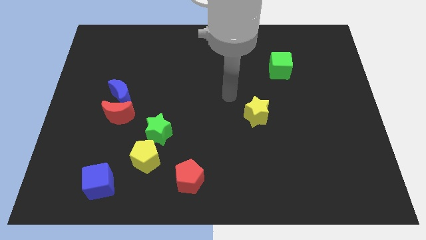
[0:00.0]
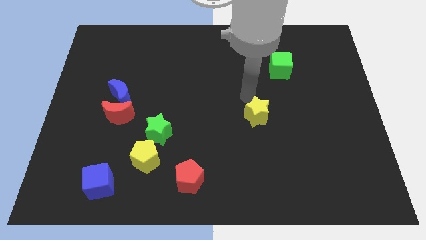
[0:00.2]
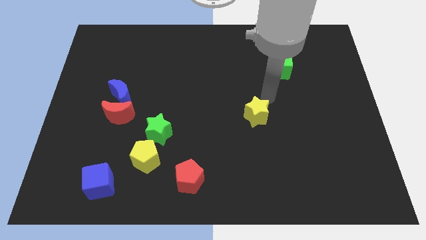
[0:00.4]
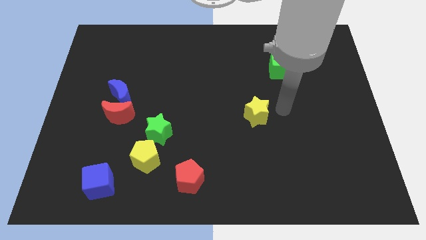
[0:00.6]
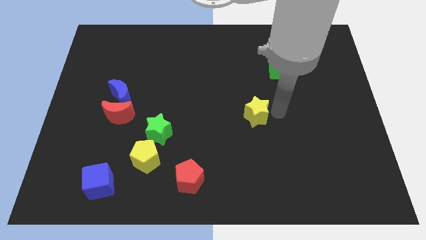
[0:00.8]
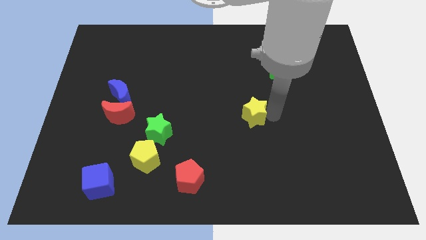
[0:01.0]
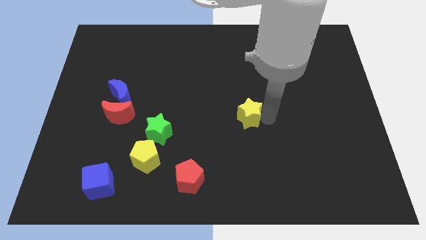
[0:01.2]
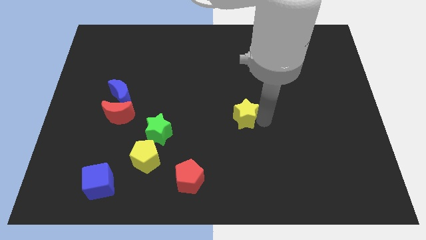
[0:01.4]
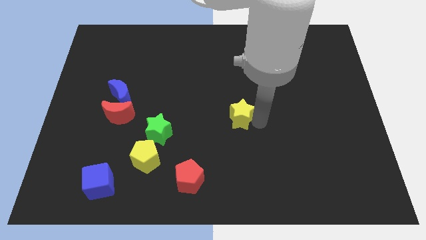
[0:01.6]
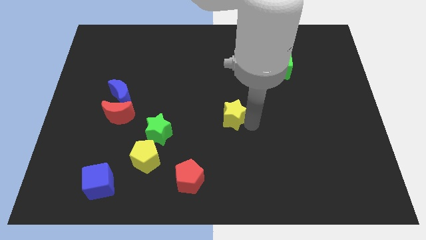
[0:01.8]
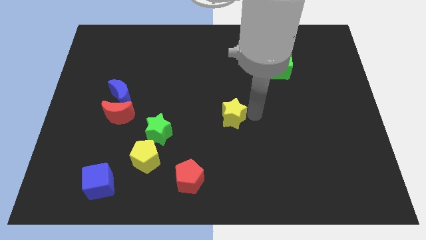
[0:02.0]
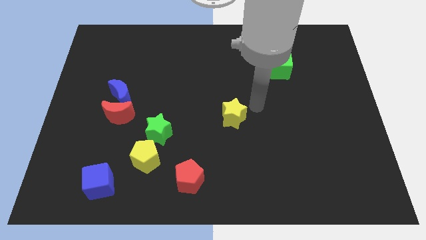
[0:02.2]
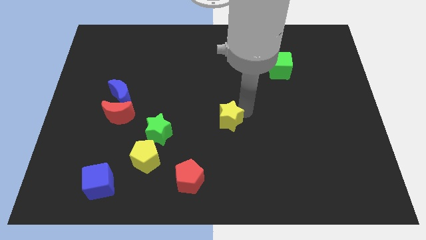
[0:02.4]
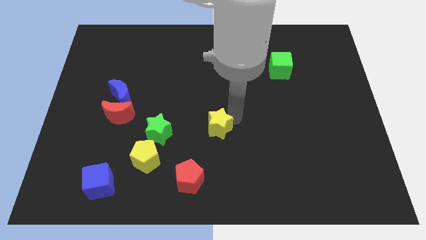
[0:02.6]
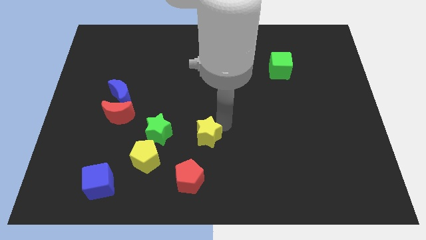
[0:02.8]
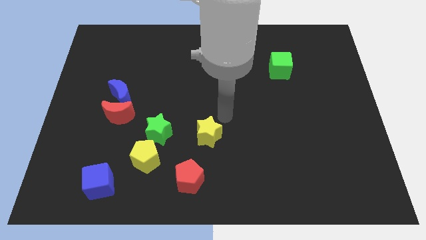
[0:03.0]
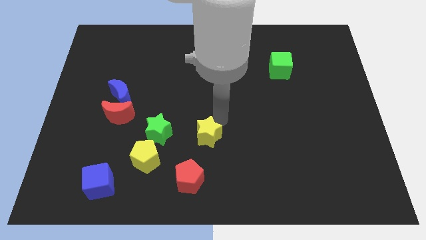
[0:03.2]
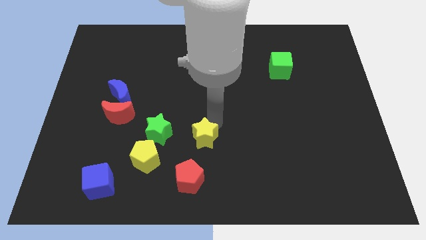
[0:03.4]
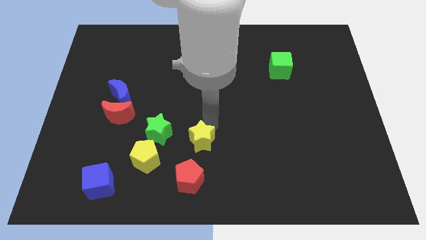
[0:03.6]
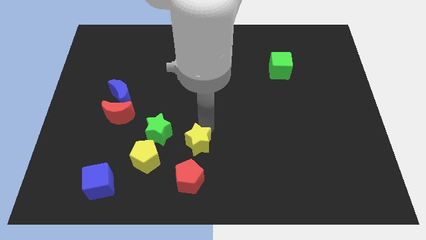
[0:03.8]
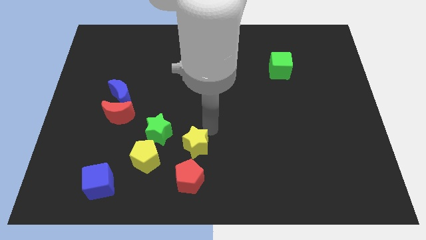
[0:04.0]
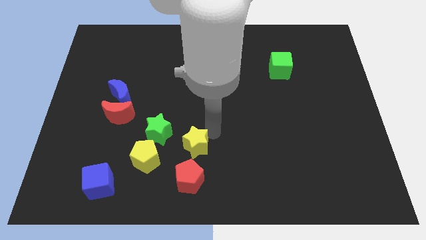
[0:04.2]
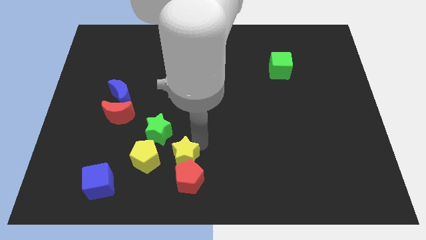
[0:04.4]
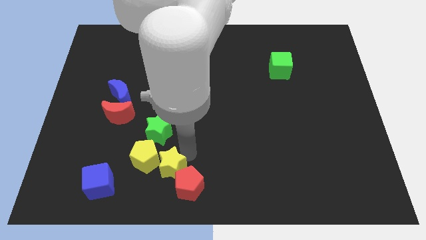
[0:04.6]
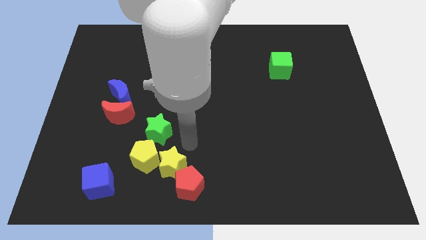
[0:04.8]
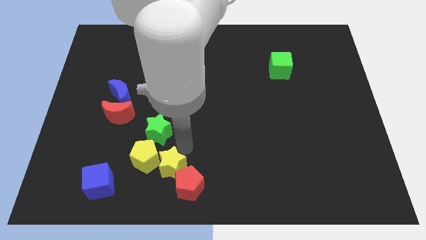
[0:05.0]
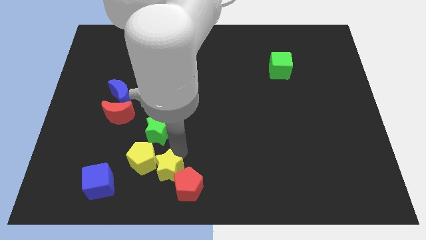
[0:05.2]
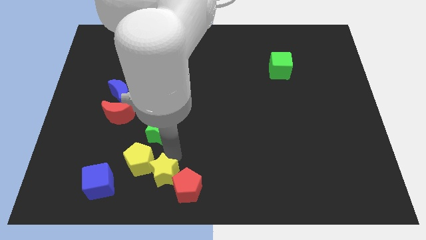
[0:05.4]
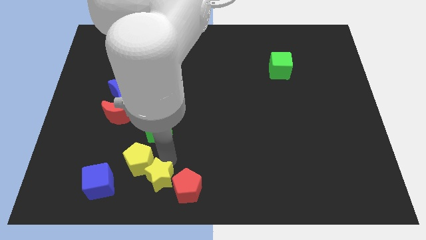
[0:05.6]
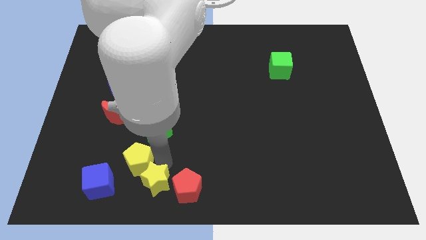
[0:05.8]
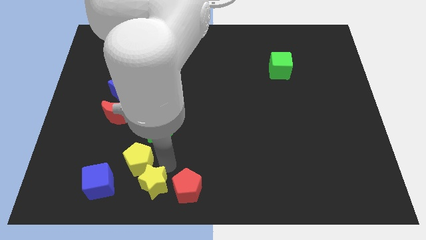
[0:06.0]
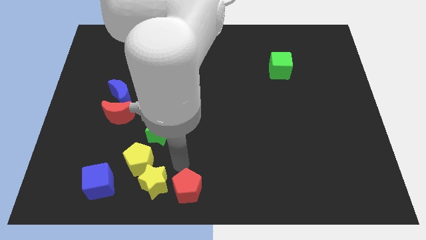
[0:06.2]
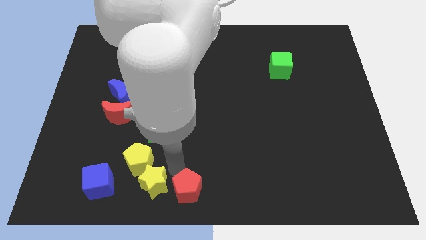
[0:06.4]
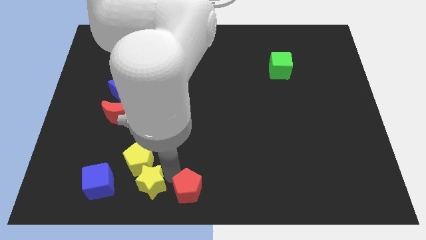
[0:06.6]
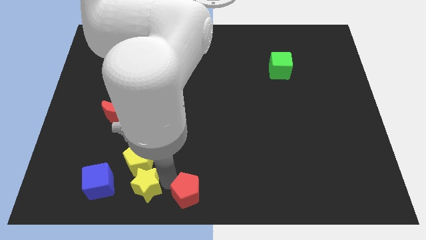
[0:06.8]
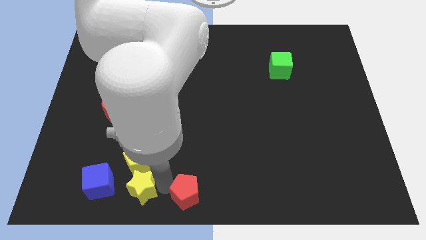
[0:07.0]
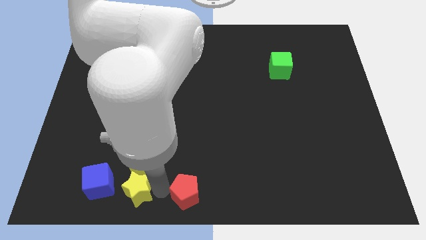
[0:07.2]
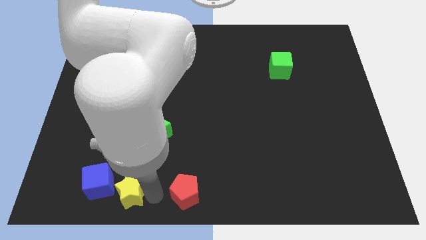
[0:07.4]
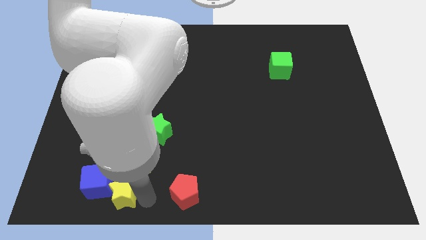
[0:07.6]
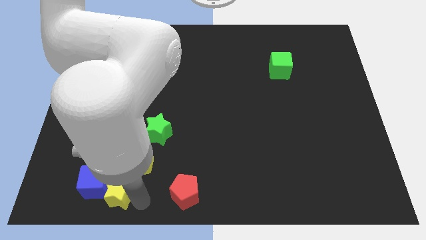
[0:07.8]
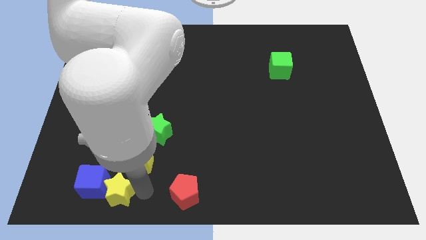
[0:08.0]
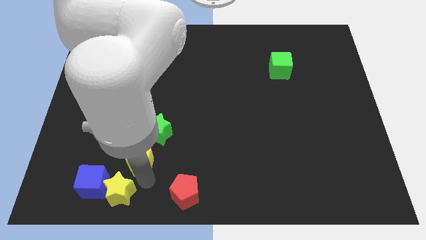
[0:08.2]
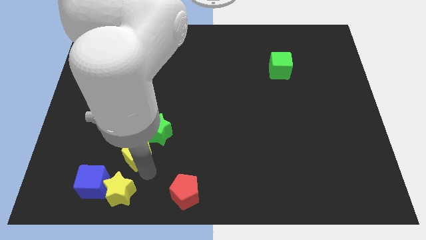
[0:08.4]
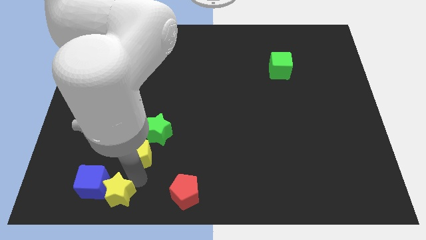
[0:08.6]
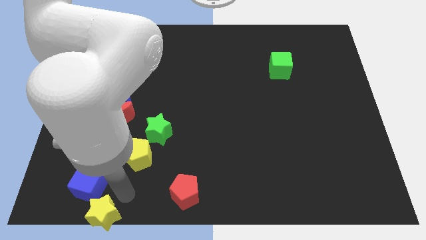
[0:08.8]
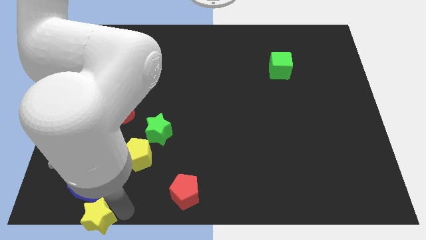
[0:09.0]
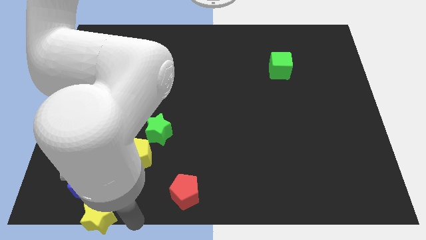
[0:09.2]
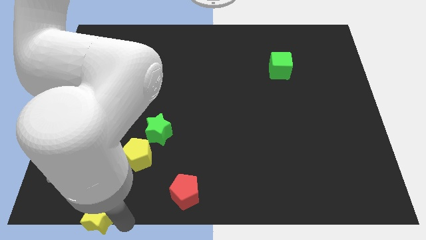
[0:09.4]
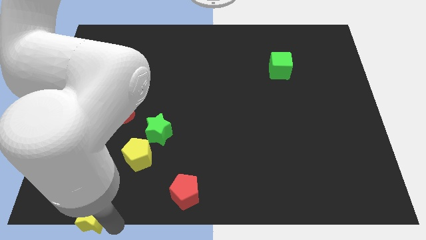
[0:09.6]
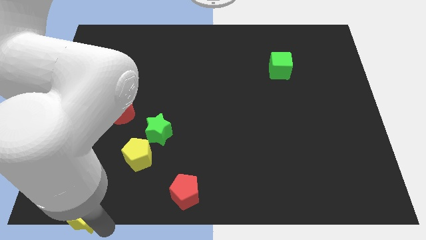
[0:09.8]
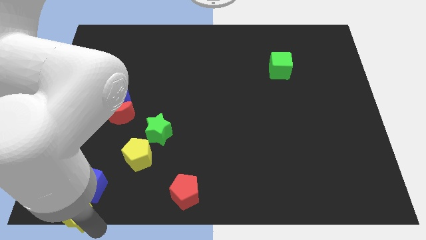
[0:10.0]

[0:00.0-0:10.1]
push the yellow star to the bottom left of the board

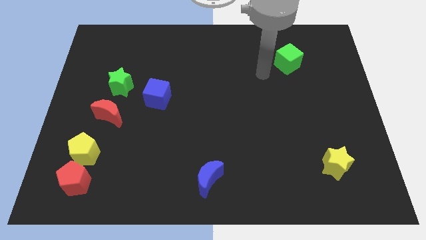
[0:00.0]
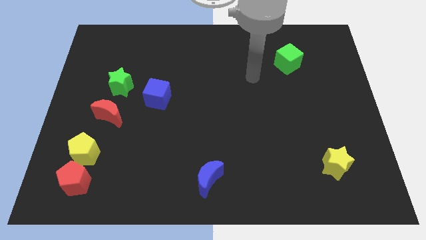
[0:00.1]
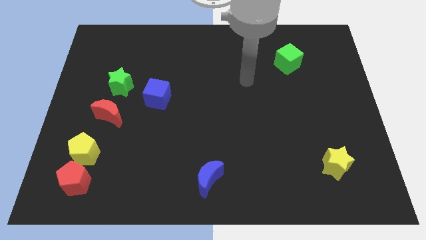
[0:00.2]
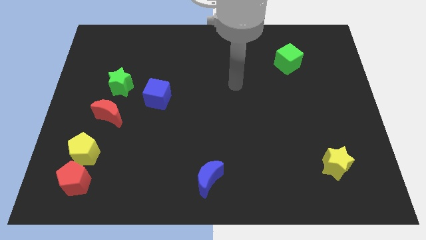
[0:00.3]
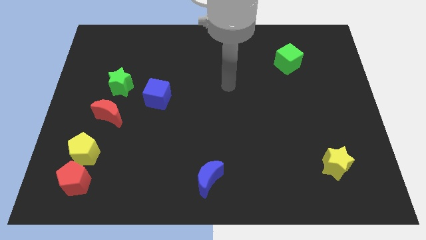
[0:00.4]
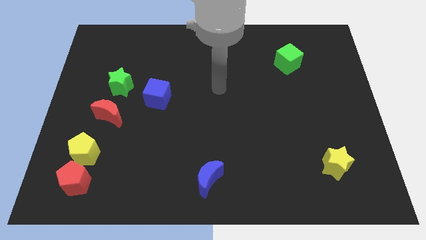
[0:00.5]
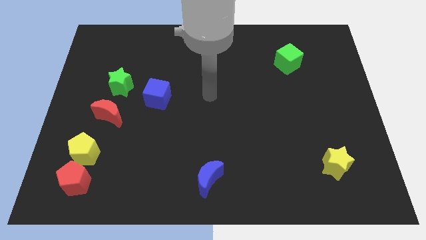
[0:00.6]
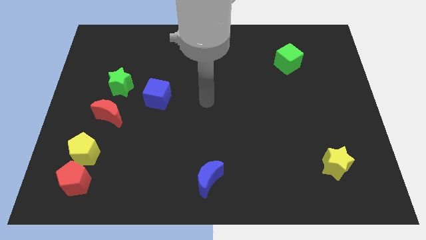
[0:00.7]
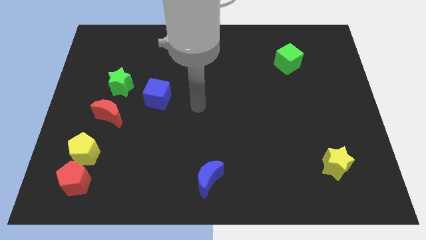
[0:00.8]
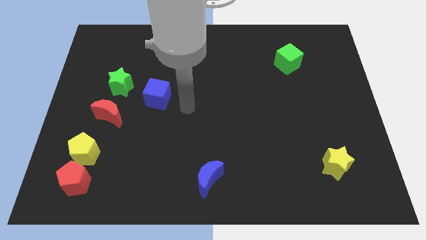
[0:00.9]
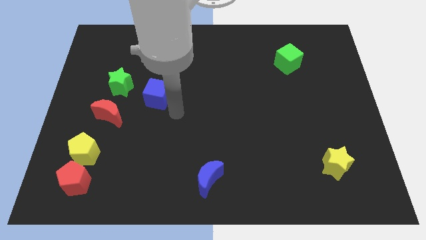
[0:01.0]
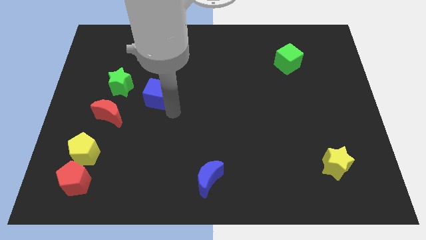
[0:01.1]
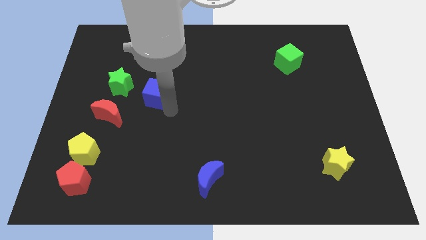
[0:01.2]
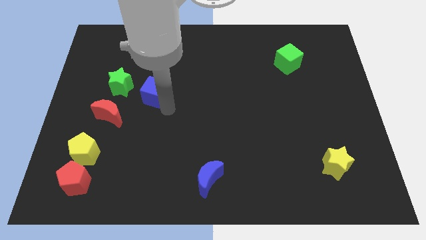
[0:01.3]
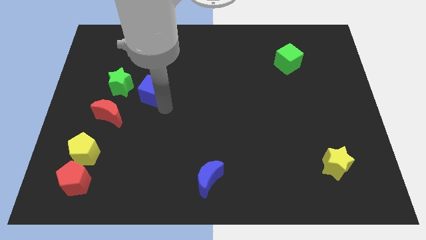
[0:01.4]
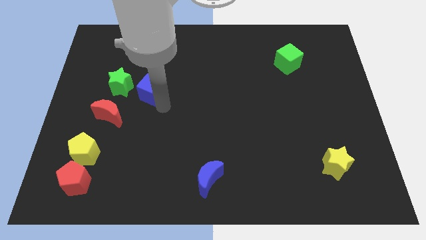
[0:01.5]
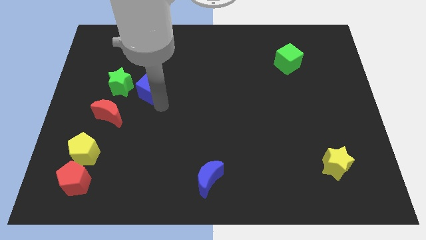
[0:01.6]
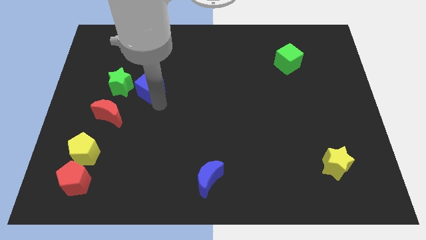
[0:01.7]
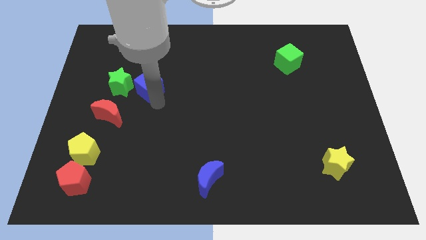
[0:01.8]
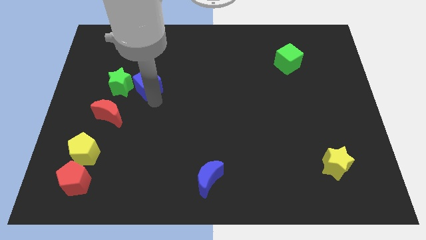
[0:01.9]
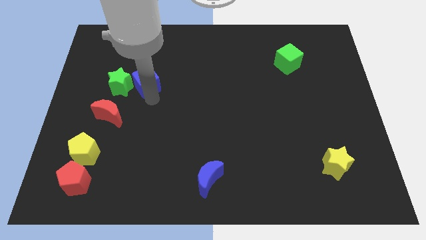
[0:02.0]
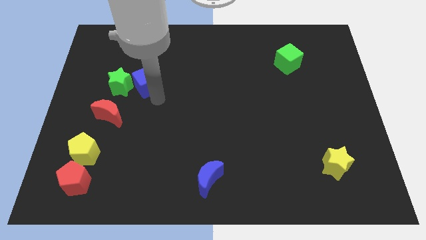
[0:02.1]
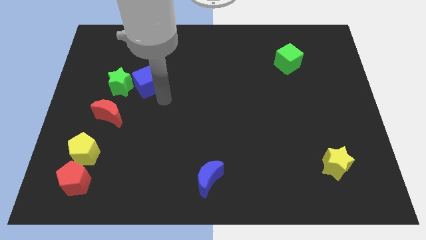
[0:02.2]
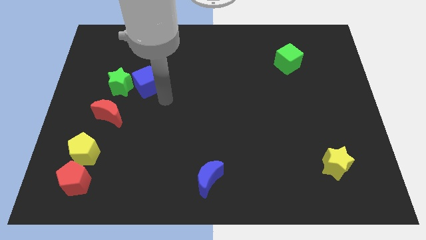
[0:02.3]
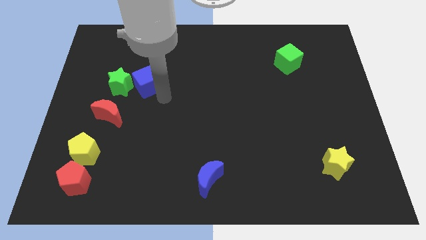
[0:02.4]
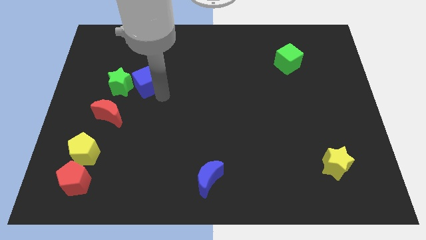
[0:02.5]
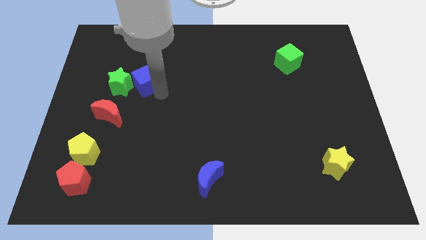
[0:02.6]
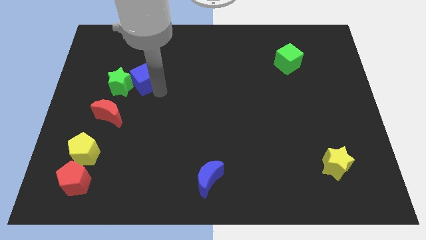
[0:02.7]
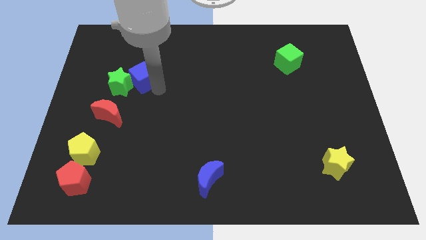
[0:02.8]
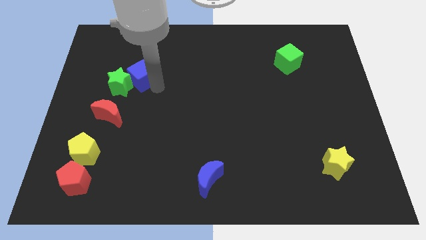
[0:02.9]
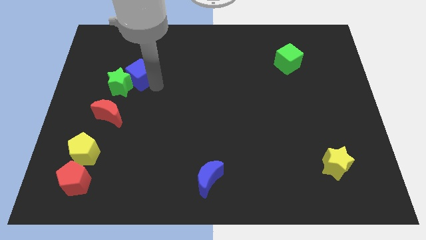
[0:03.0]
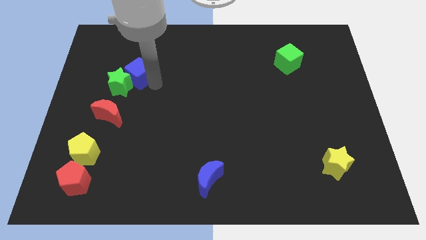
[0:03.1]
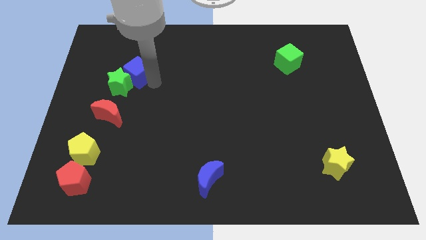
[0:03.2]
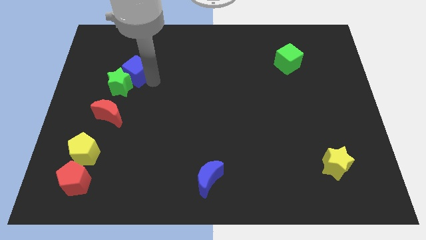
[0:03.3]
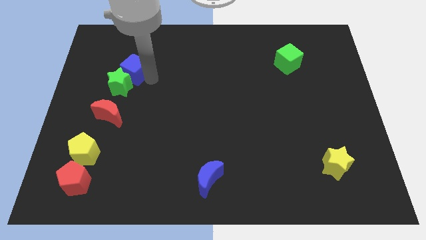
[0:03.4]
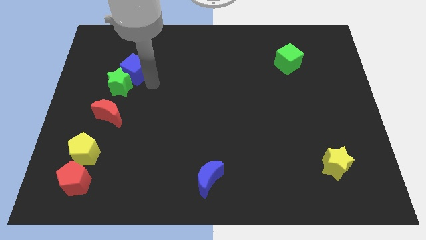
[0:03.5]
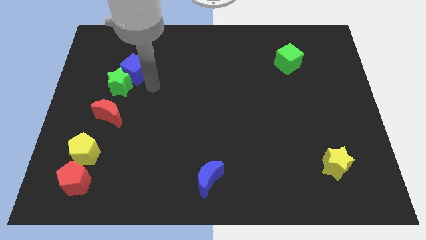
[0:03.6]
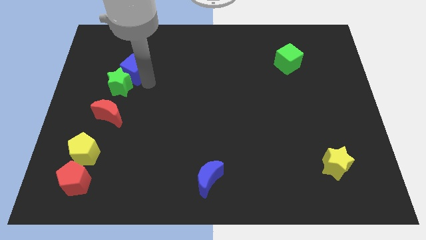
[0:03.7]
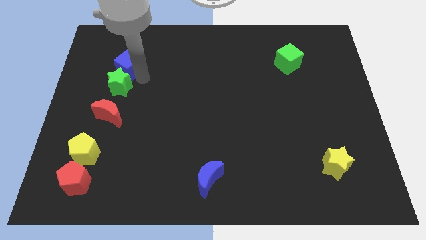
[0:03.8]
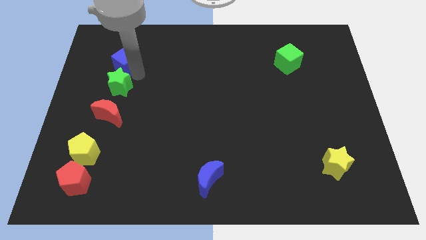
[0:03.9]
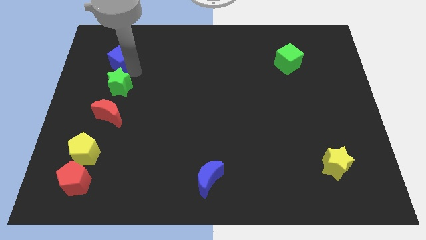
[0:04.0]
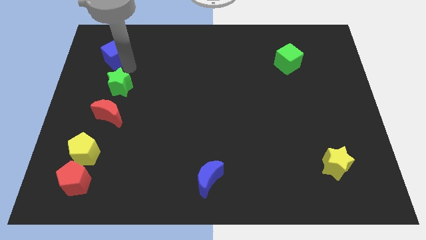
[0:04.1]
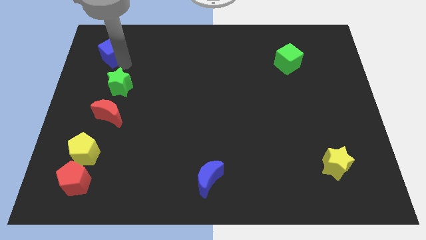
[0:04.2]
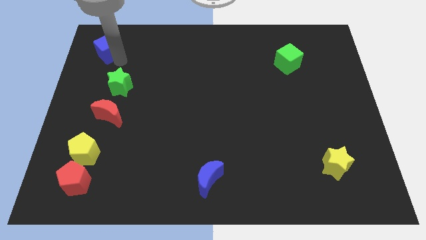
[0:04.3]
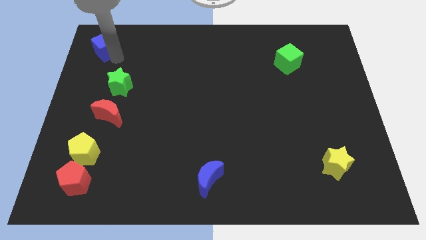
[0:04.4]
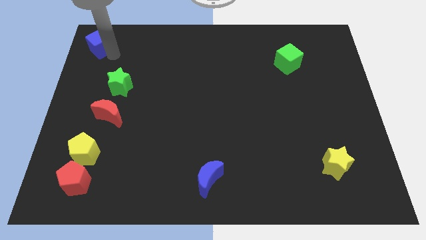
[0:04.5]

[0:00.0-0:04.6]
slide the blue cube to the top left
